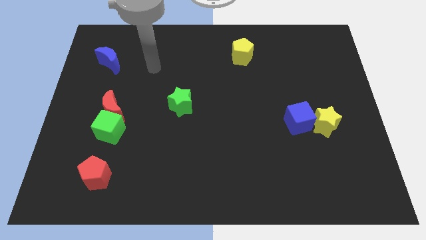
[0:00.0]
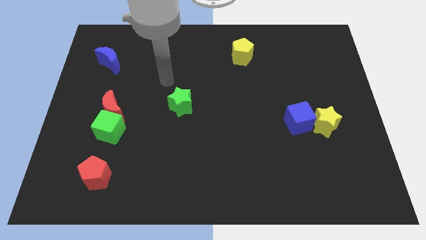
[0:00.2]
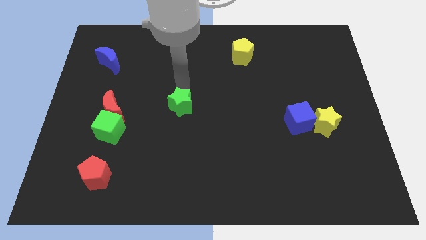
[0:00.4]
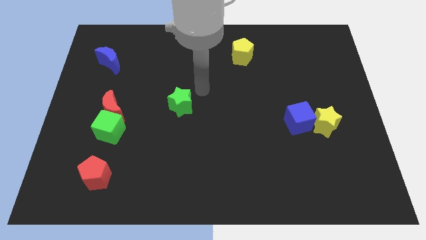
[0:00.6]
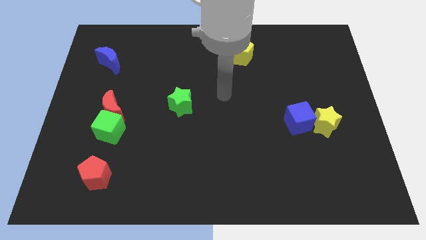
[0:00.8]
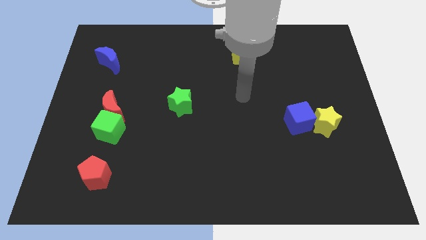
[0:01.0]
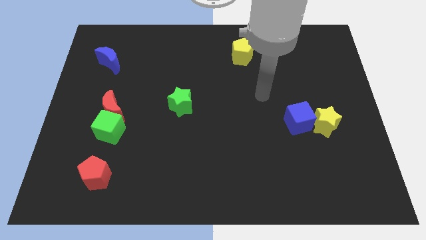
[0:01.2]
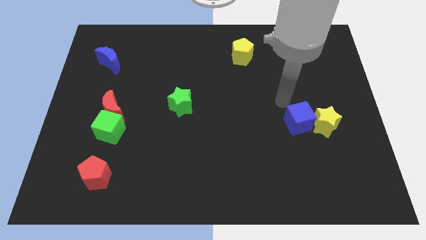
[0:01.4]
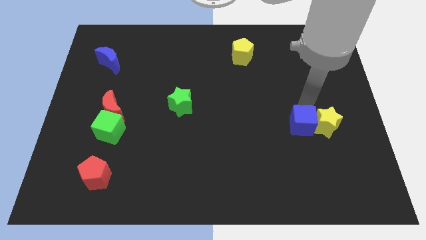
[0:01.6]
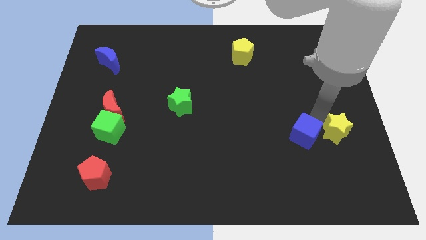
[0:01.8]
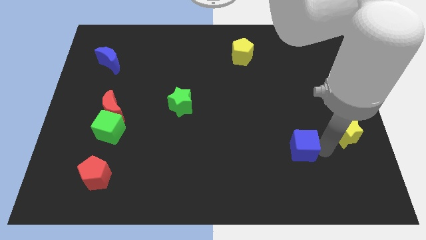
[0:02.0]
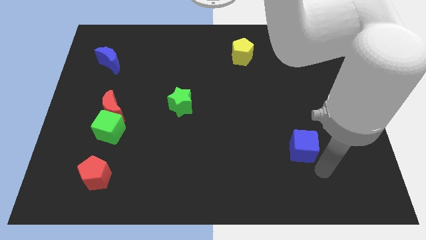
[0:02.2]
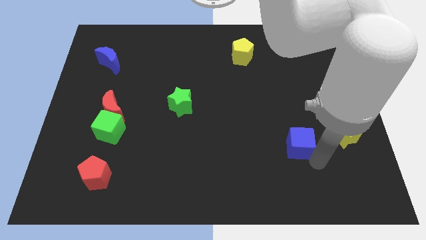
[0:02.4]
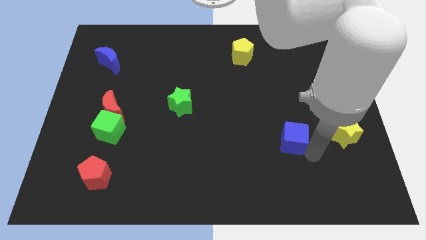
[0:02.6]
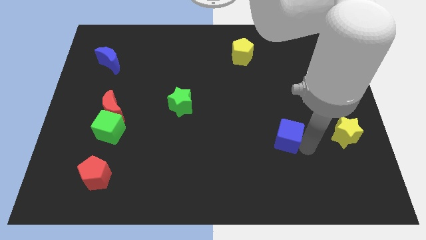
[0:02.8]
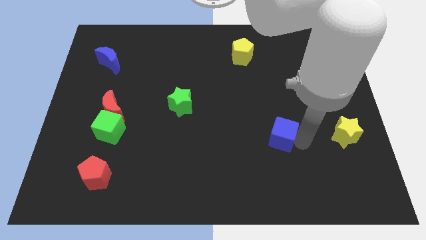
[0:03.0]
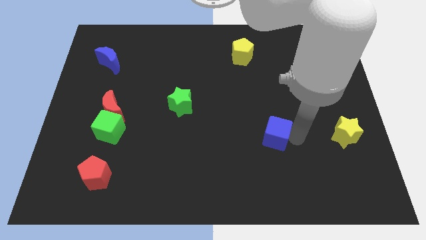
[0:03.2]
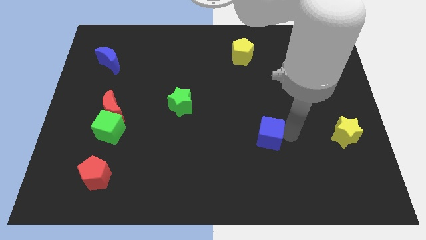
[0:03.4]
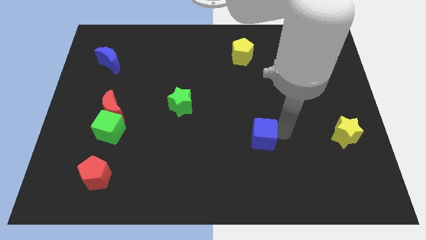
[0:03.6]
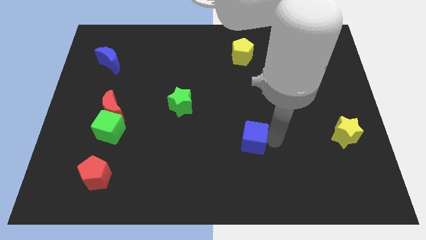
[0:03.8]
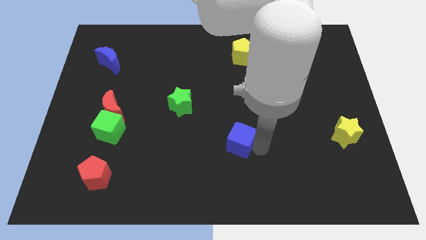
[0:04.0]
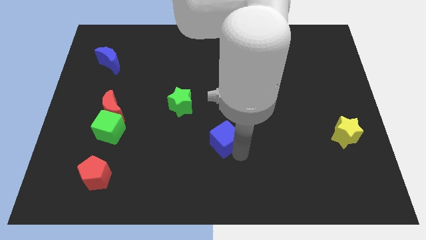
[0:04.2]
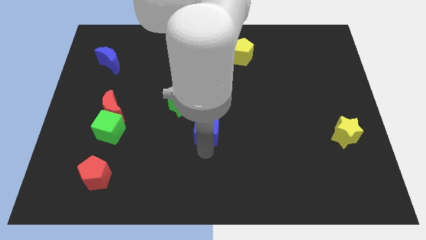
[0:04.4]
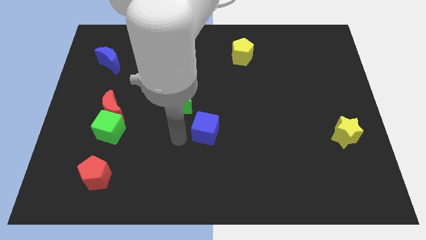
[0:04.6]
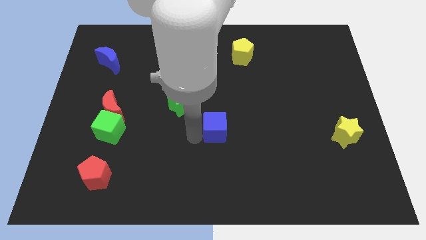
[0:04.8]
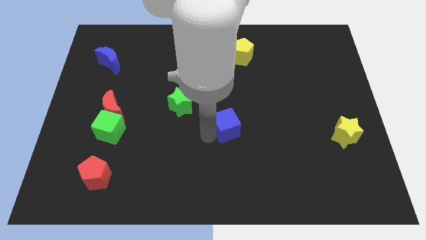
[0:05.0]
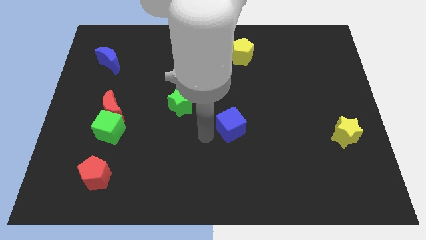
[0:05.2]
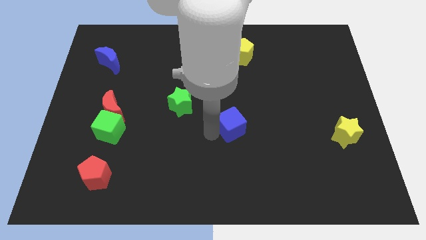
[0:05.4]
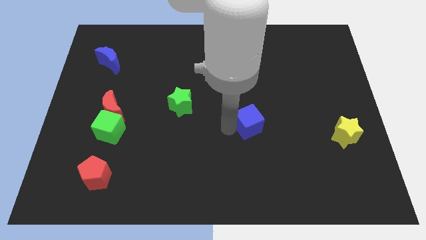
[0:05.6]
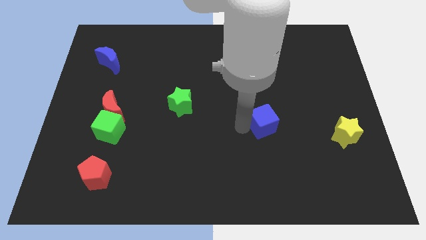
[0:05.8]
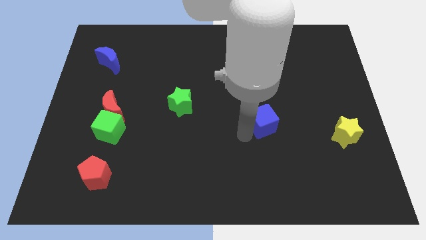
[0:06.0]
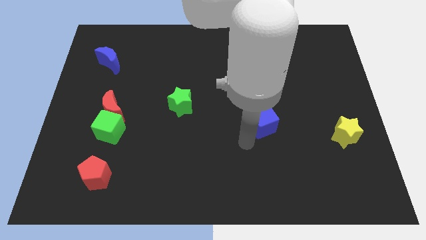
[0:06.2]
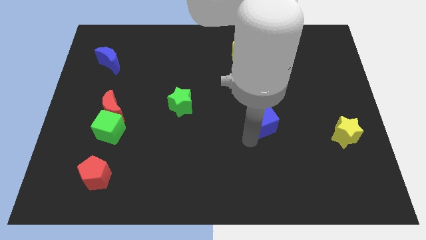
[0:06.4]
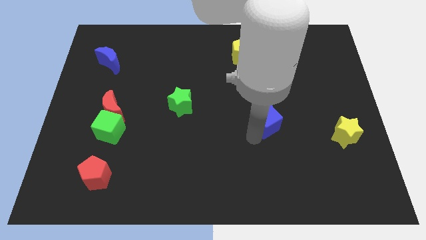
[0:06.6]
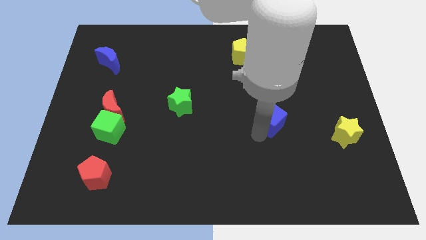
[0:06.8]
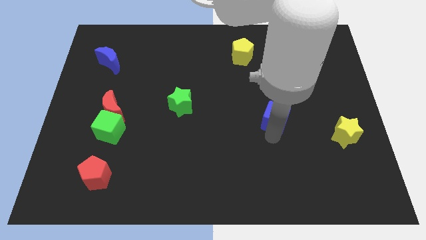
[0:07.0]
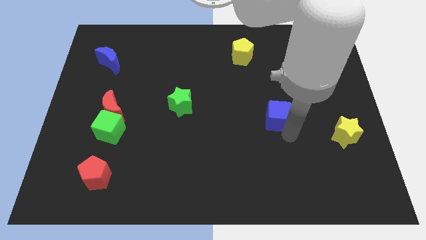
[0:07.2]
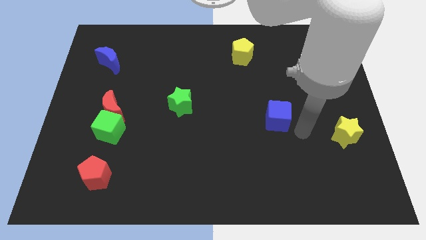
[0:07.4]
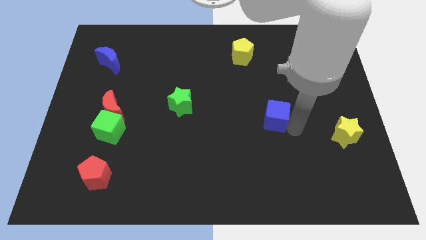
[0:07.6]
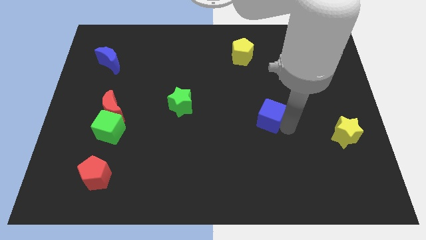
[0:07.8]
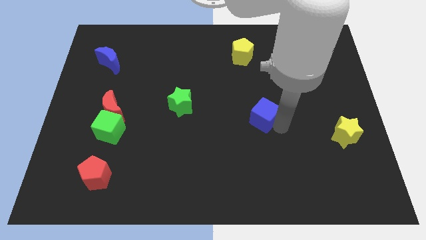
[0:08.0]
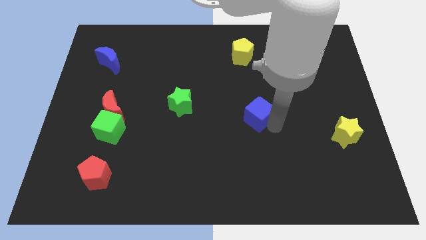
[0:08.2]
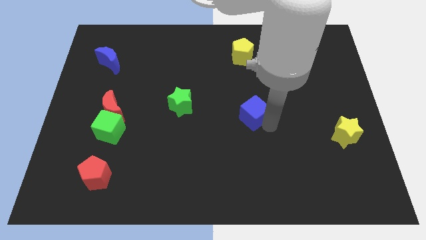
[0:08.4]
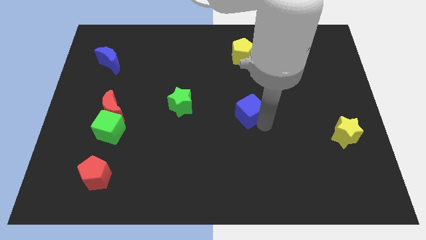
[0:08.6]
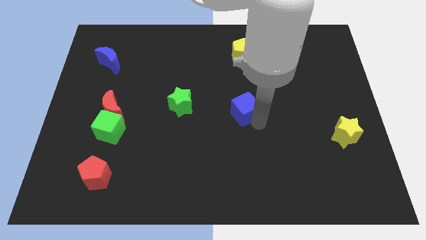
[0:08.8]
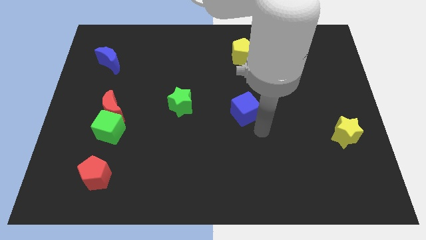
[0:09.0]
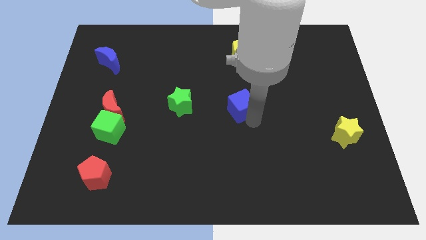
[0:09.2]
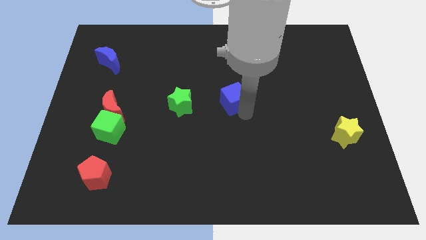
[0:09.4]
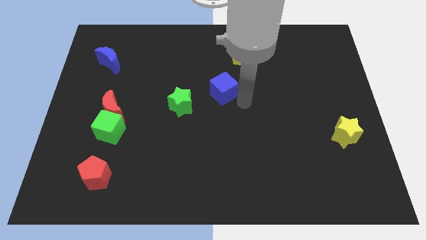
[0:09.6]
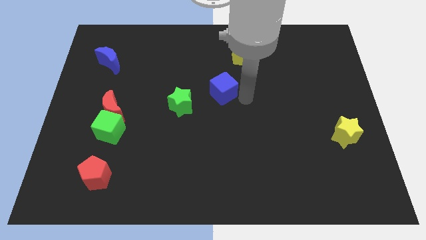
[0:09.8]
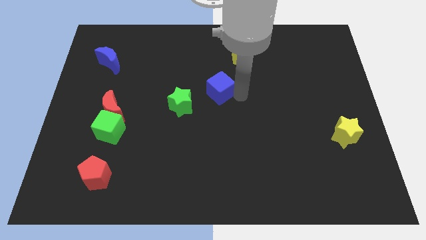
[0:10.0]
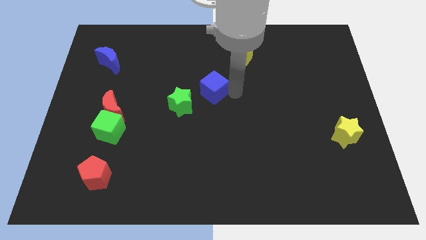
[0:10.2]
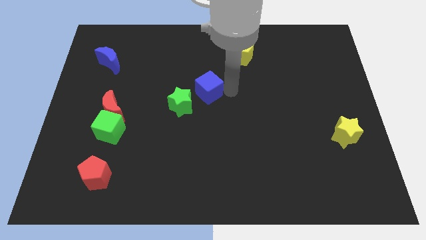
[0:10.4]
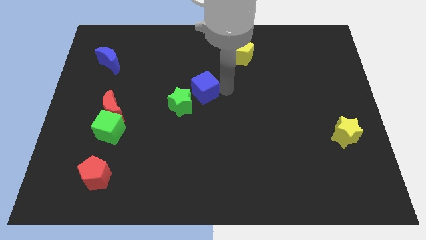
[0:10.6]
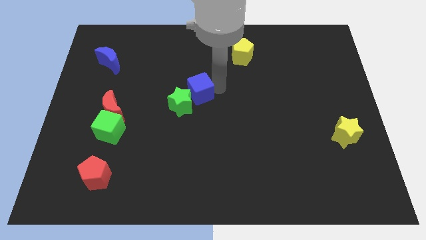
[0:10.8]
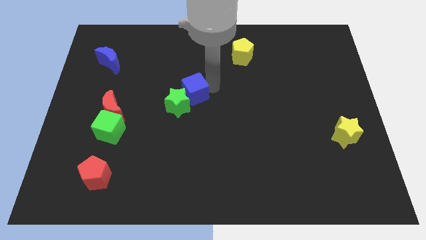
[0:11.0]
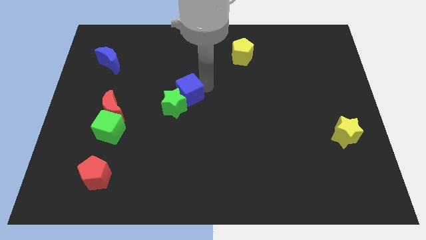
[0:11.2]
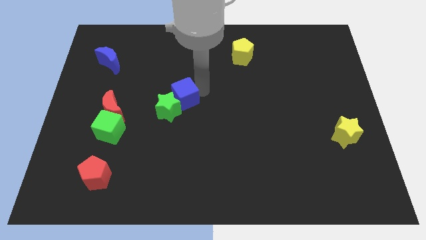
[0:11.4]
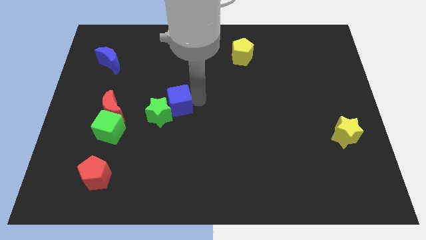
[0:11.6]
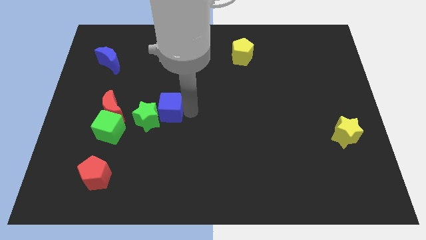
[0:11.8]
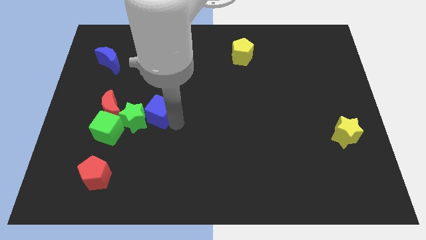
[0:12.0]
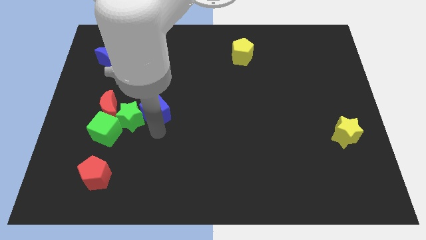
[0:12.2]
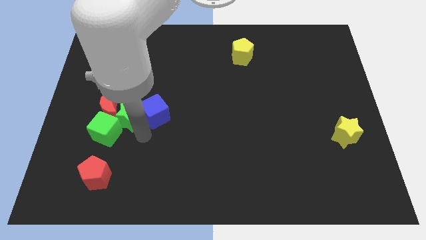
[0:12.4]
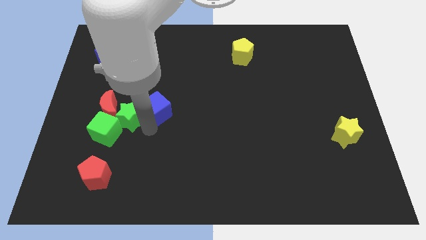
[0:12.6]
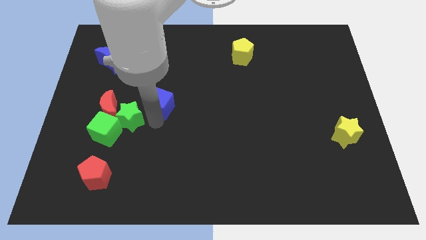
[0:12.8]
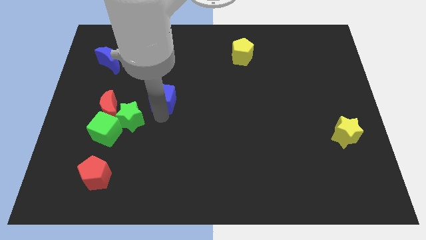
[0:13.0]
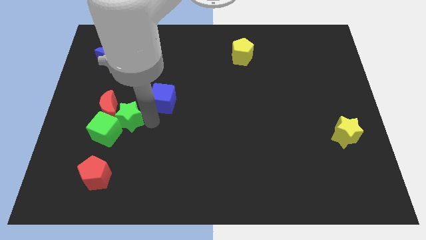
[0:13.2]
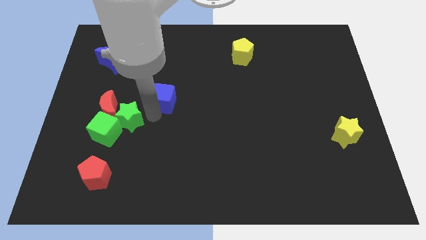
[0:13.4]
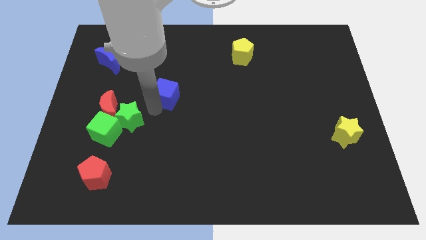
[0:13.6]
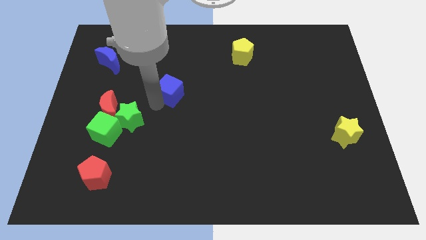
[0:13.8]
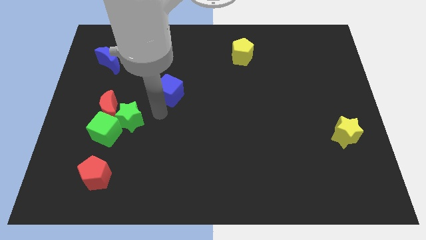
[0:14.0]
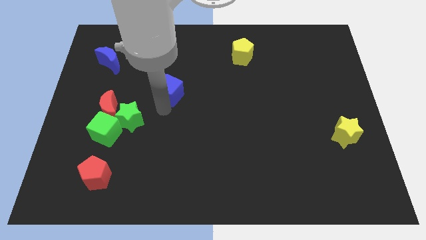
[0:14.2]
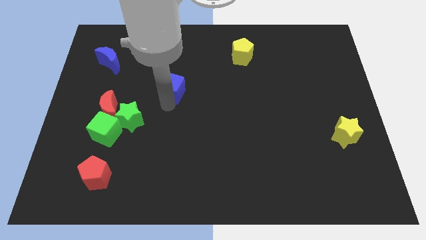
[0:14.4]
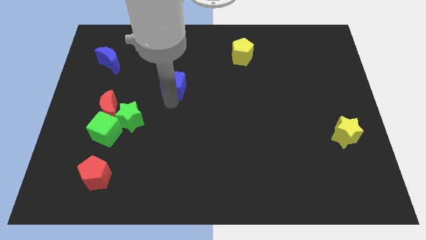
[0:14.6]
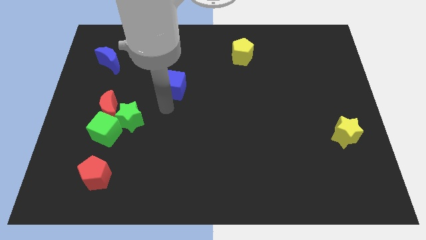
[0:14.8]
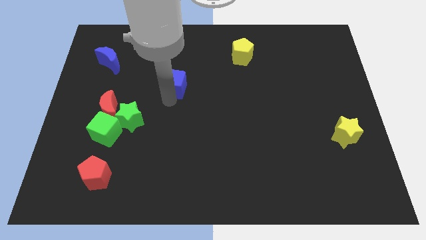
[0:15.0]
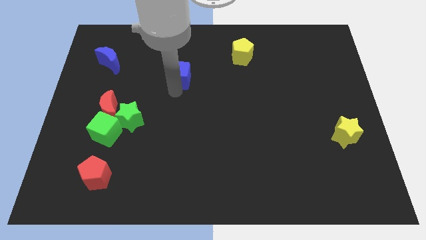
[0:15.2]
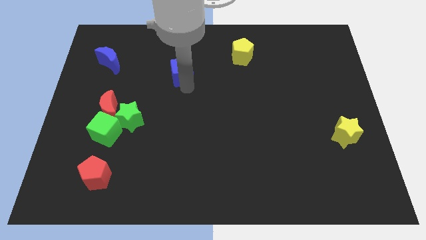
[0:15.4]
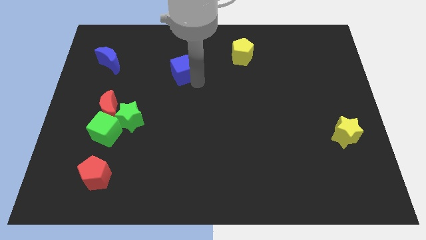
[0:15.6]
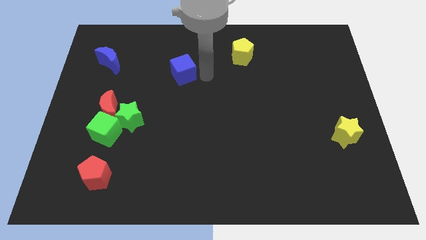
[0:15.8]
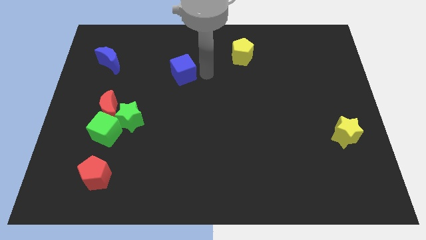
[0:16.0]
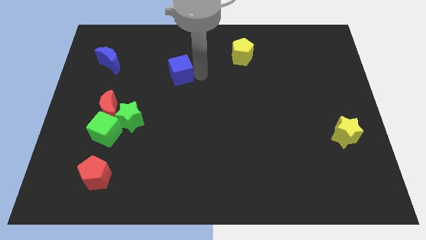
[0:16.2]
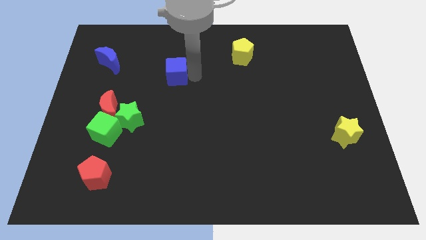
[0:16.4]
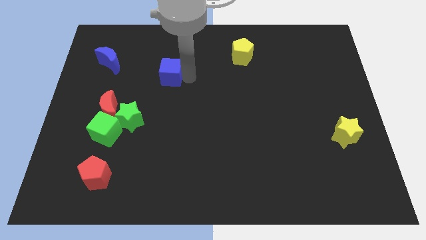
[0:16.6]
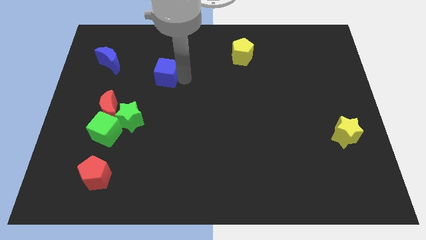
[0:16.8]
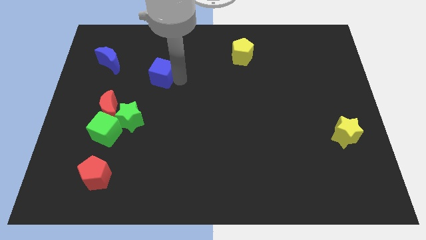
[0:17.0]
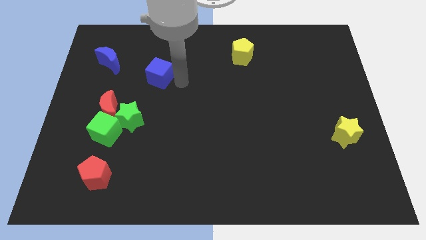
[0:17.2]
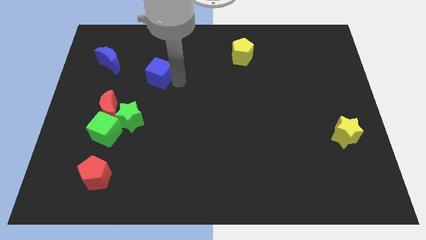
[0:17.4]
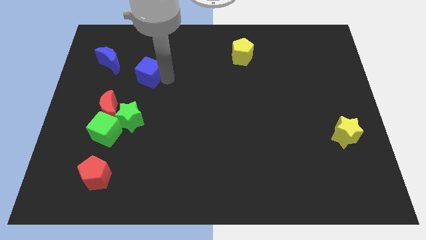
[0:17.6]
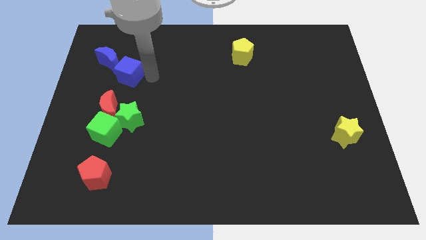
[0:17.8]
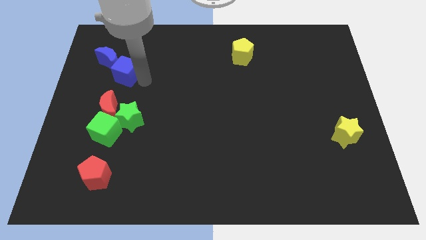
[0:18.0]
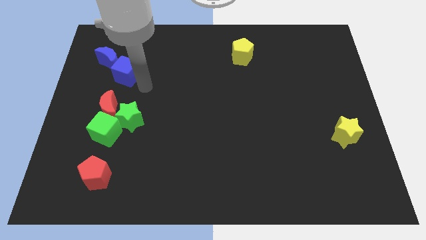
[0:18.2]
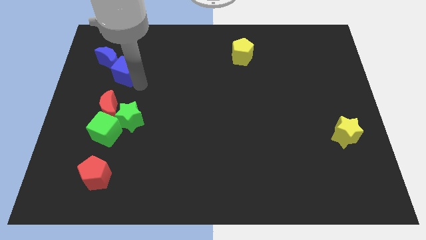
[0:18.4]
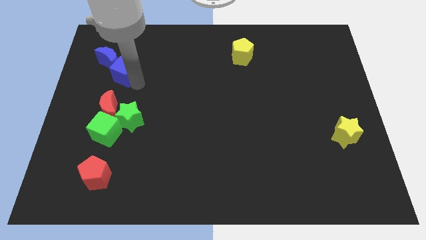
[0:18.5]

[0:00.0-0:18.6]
move the blue cube next to the blue moon
